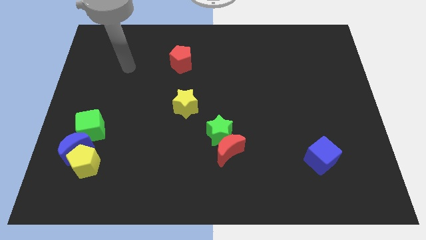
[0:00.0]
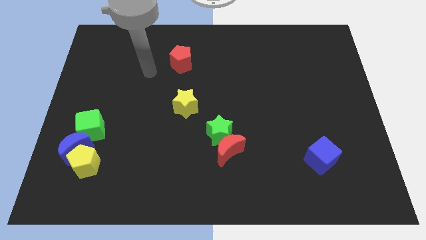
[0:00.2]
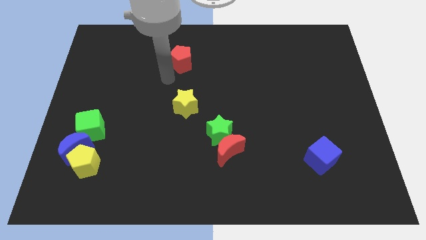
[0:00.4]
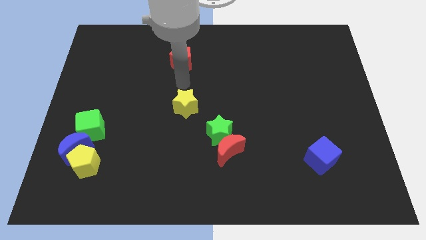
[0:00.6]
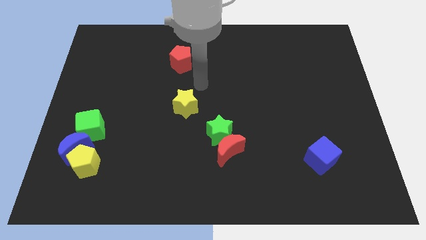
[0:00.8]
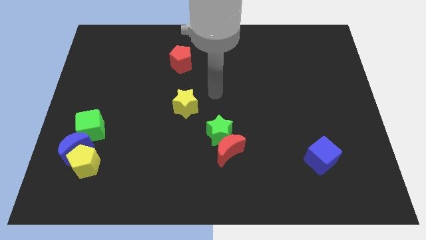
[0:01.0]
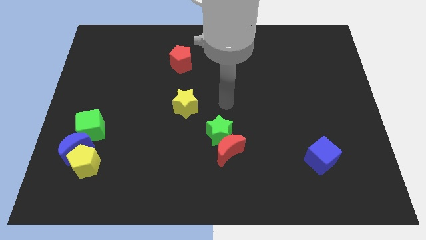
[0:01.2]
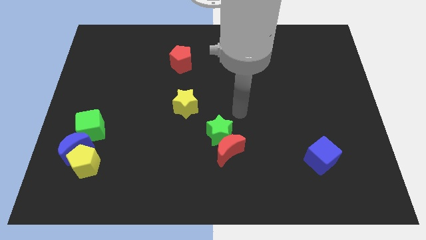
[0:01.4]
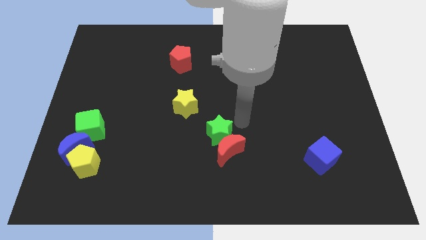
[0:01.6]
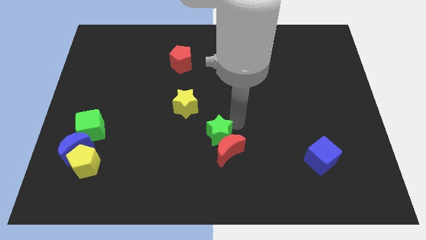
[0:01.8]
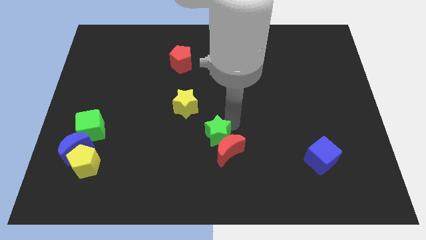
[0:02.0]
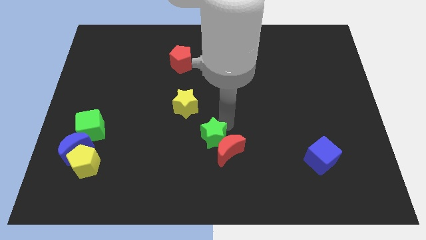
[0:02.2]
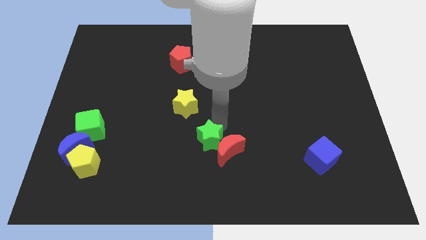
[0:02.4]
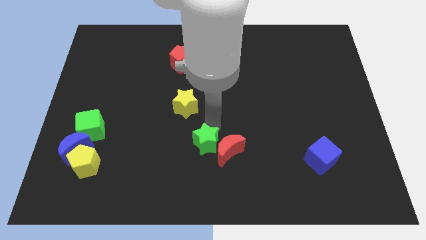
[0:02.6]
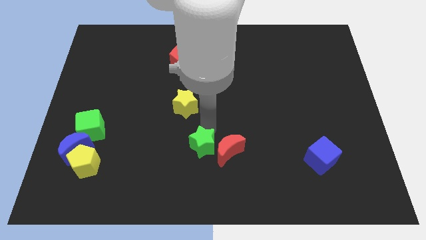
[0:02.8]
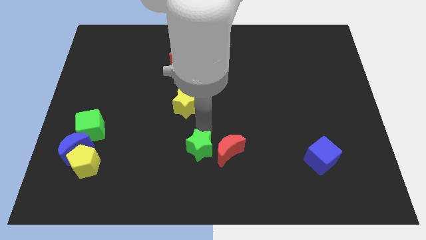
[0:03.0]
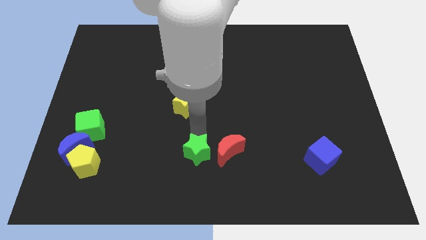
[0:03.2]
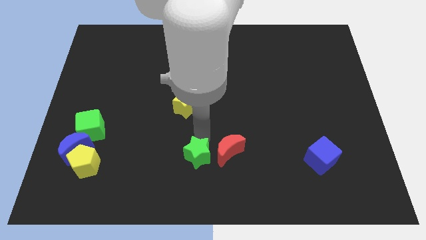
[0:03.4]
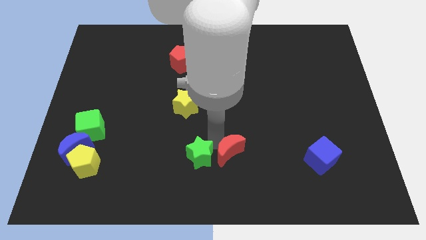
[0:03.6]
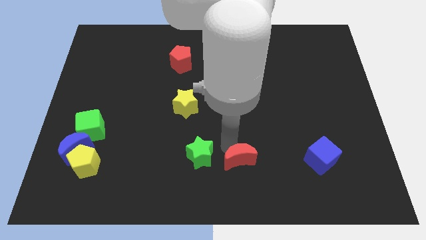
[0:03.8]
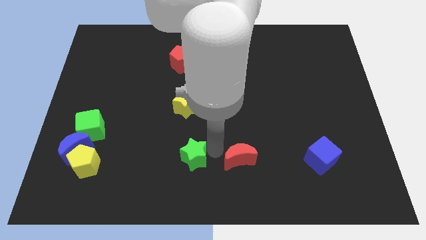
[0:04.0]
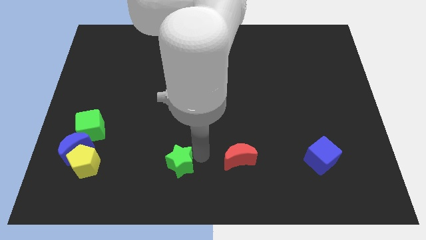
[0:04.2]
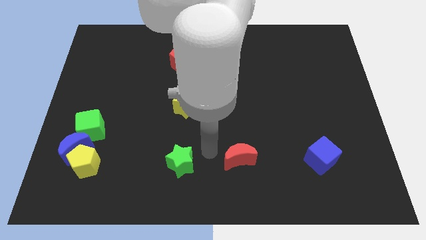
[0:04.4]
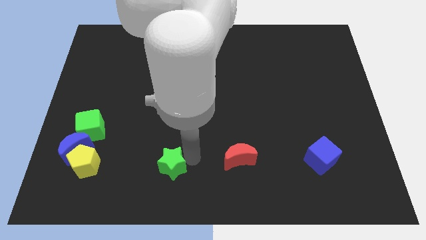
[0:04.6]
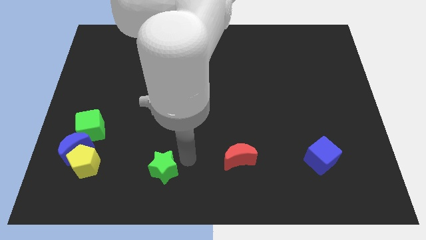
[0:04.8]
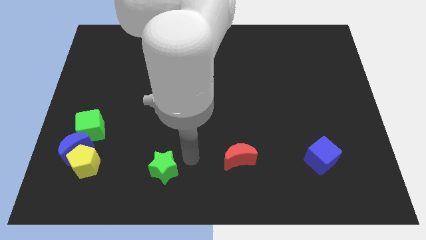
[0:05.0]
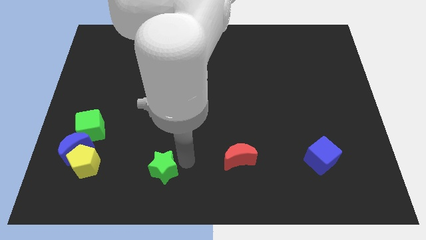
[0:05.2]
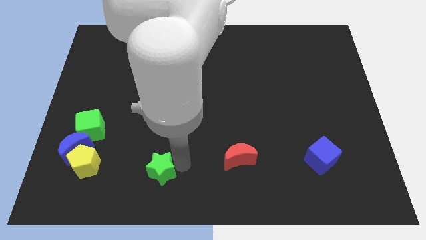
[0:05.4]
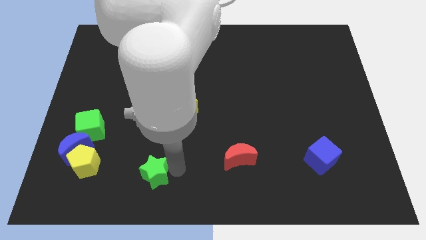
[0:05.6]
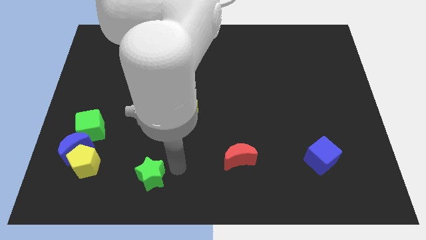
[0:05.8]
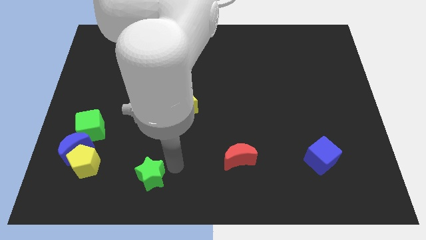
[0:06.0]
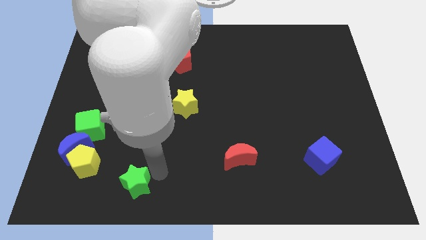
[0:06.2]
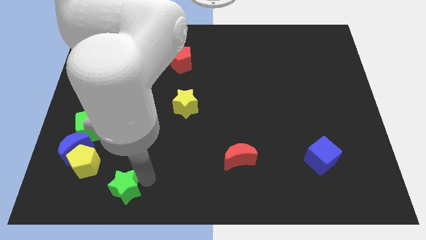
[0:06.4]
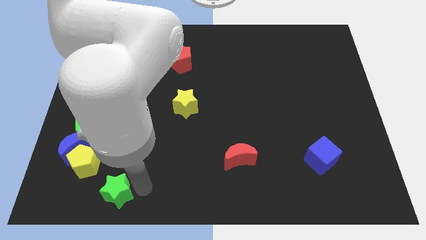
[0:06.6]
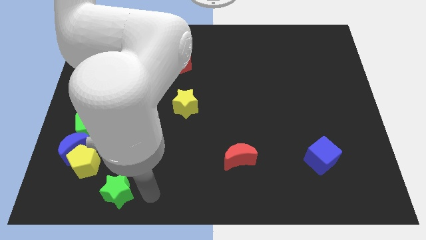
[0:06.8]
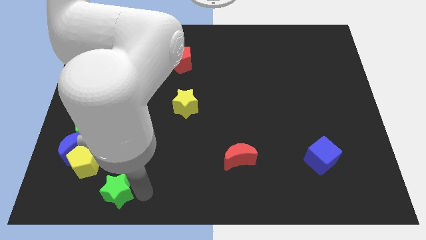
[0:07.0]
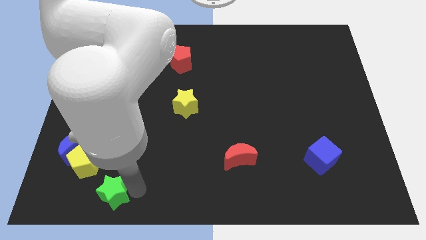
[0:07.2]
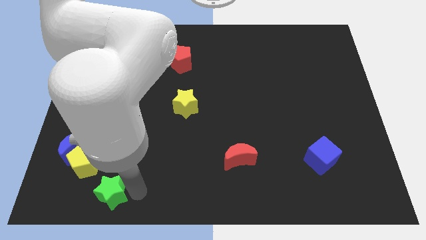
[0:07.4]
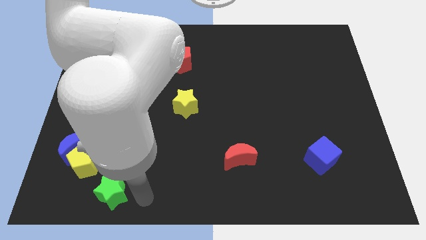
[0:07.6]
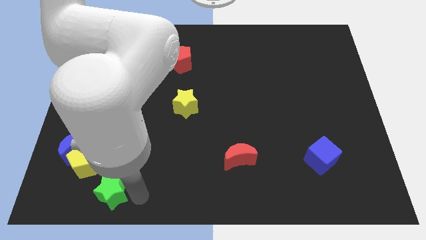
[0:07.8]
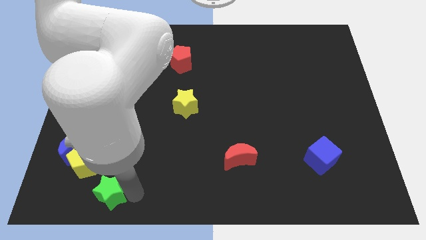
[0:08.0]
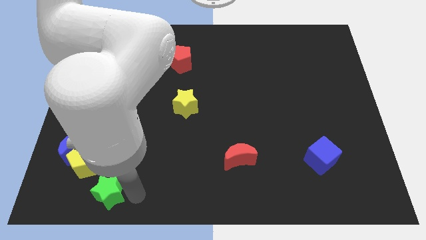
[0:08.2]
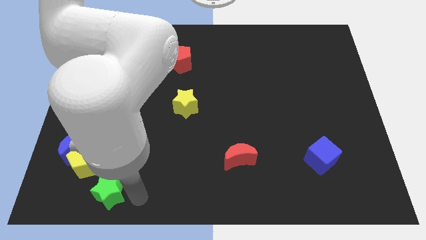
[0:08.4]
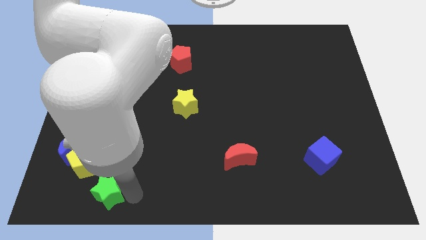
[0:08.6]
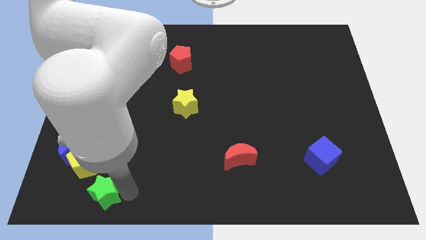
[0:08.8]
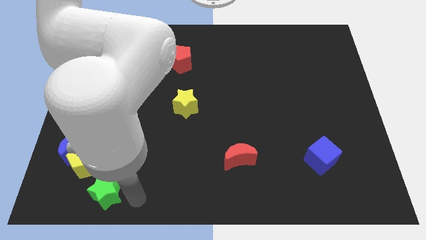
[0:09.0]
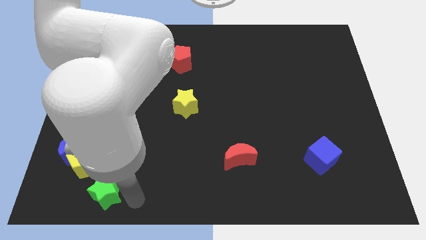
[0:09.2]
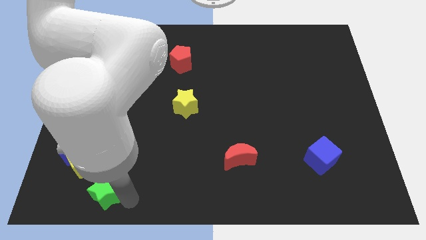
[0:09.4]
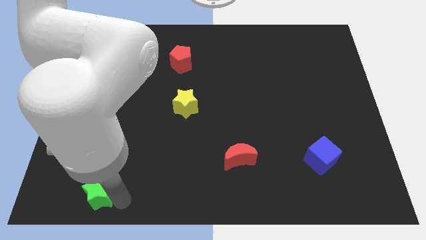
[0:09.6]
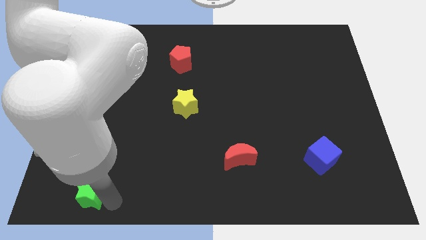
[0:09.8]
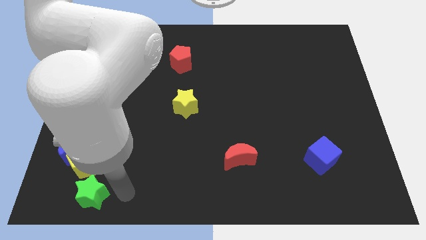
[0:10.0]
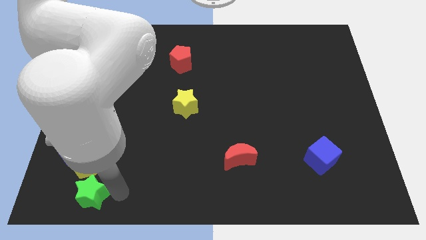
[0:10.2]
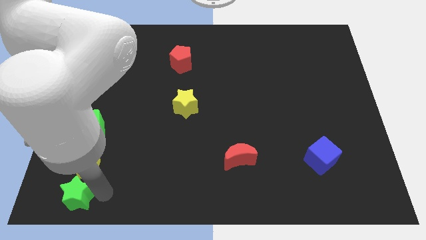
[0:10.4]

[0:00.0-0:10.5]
slide the green star to the bottom left of the board
